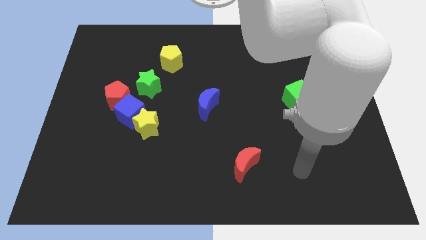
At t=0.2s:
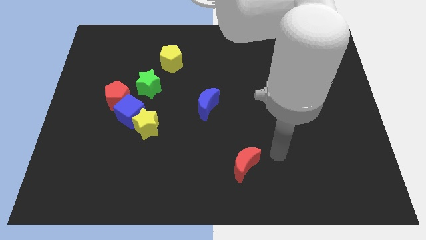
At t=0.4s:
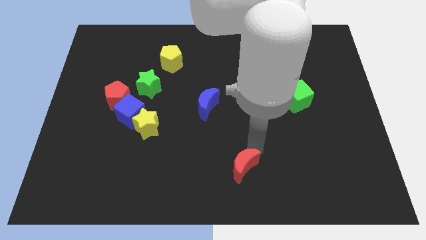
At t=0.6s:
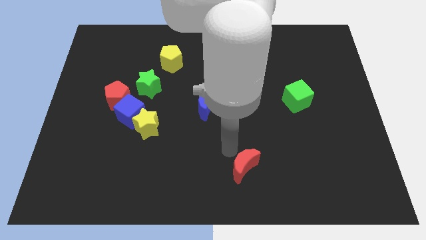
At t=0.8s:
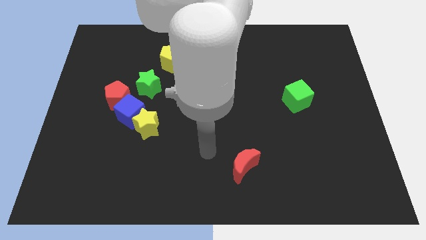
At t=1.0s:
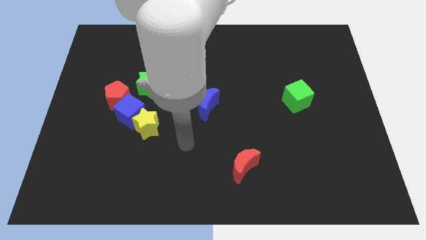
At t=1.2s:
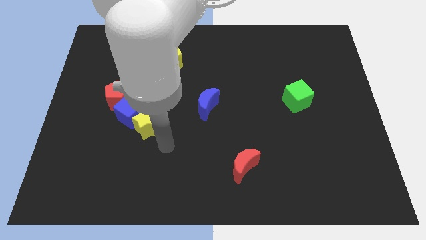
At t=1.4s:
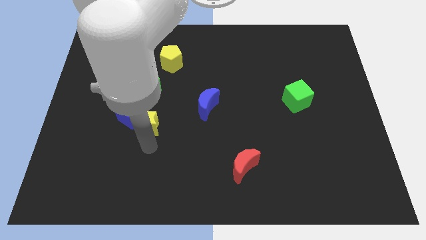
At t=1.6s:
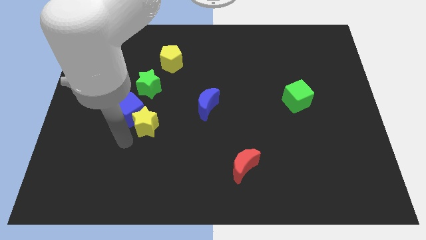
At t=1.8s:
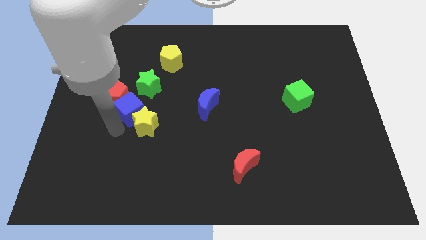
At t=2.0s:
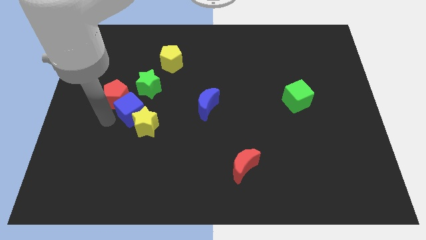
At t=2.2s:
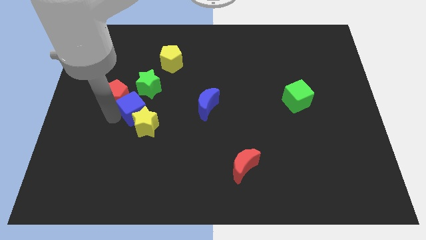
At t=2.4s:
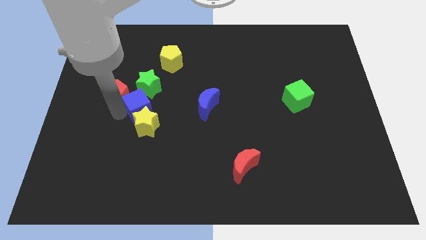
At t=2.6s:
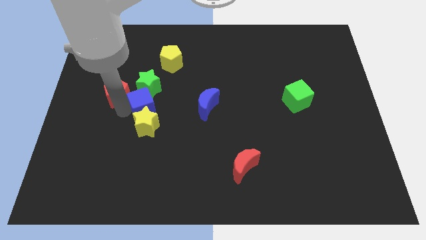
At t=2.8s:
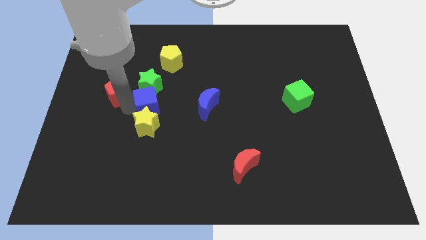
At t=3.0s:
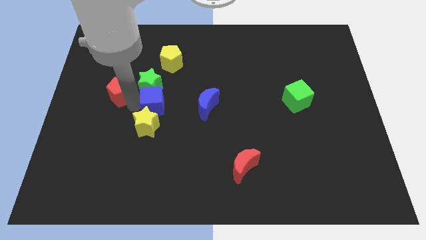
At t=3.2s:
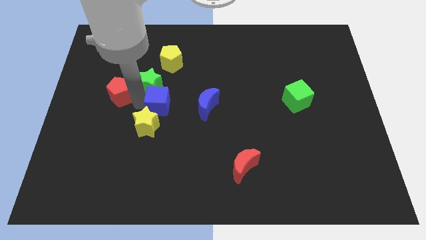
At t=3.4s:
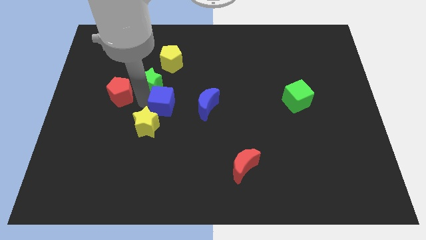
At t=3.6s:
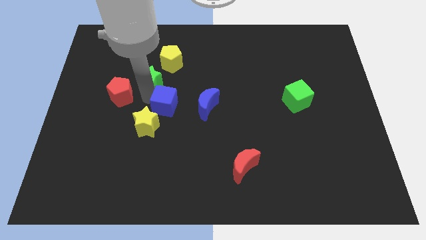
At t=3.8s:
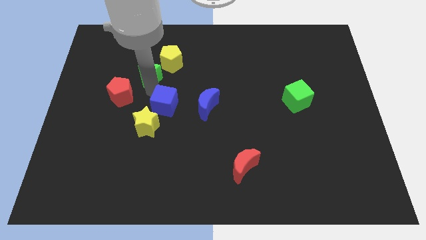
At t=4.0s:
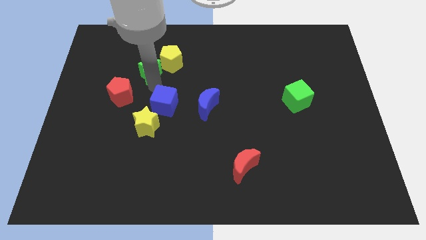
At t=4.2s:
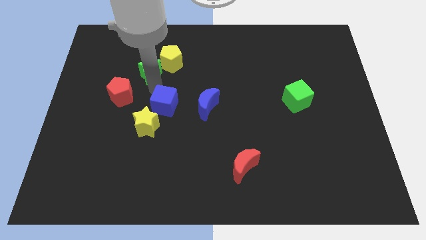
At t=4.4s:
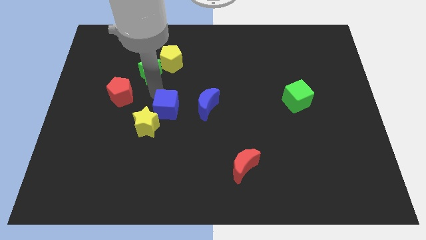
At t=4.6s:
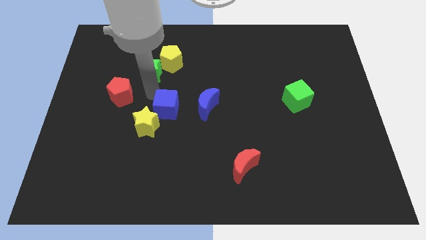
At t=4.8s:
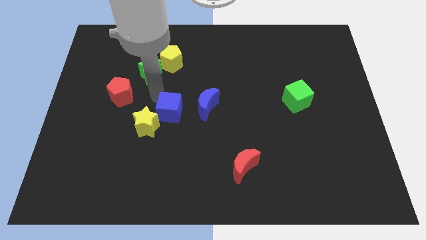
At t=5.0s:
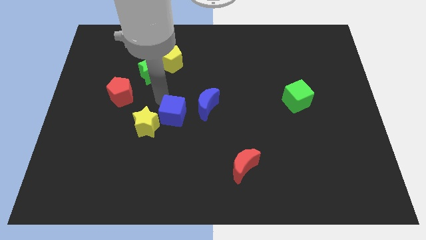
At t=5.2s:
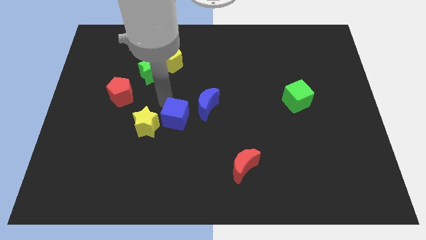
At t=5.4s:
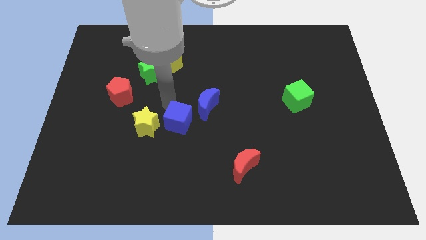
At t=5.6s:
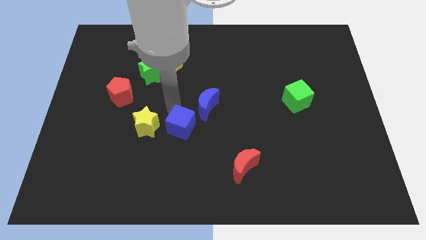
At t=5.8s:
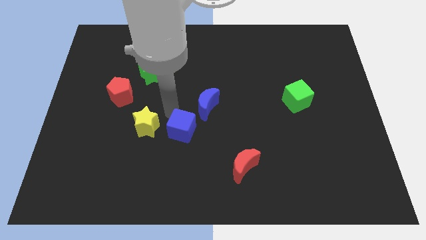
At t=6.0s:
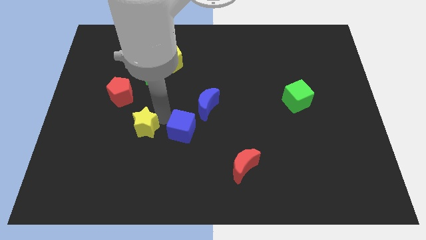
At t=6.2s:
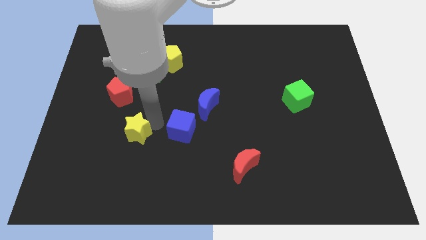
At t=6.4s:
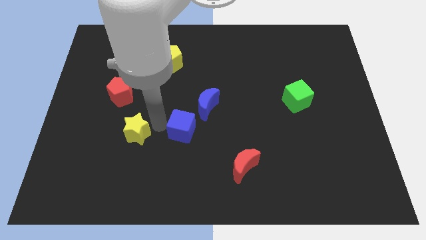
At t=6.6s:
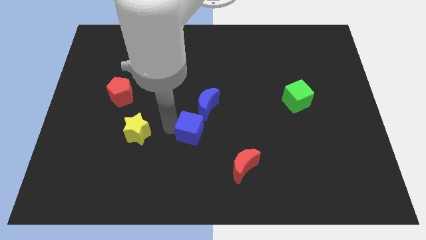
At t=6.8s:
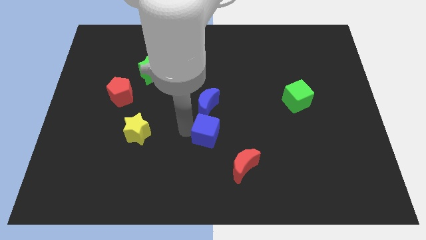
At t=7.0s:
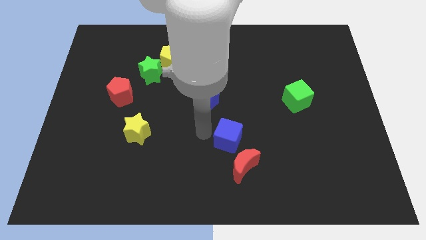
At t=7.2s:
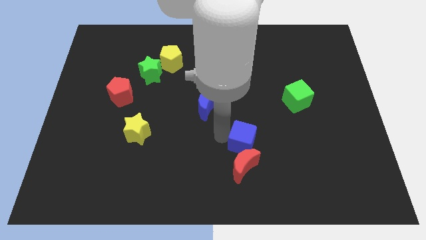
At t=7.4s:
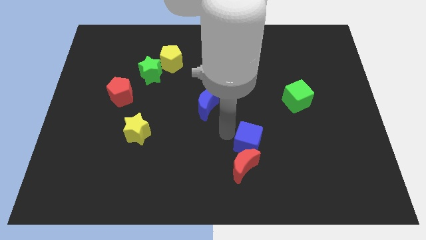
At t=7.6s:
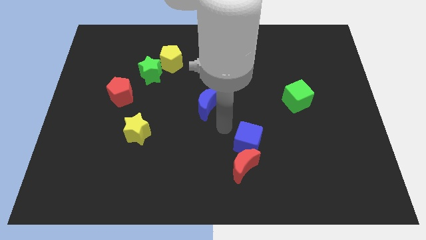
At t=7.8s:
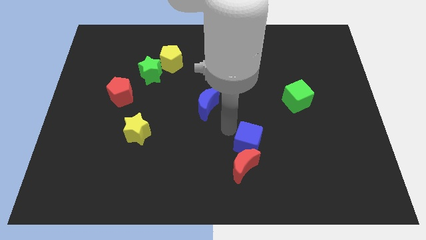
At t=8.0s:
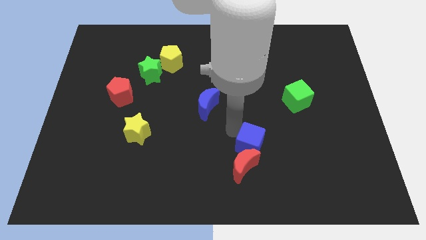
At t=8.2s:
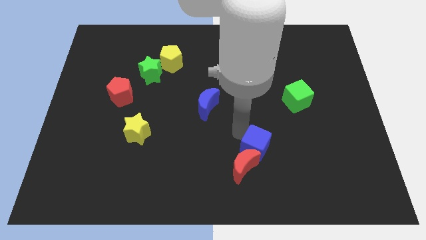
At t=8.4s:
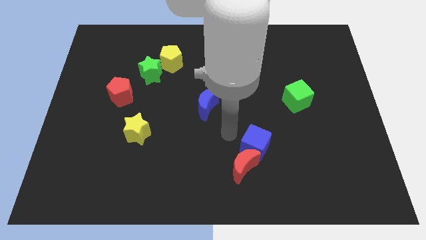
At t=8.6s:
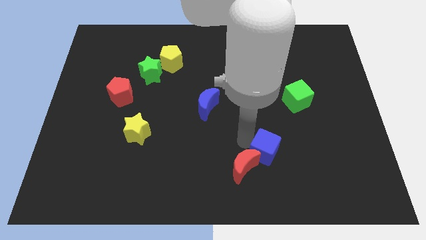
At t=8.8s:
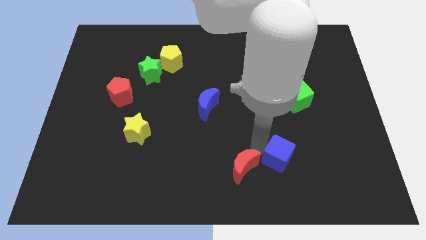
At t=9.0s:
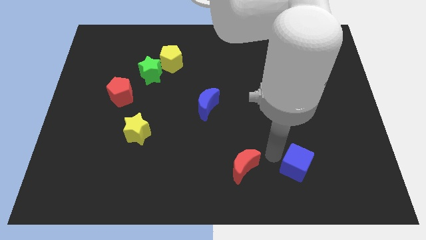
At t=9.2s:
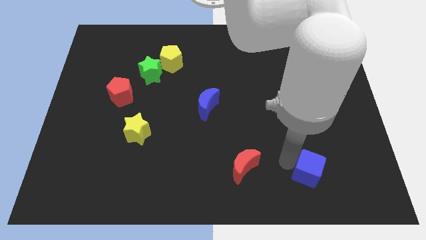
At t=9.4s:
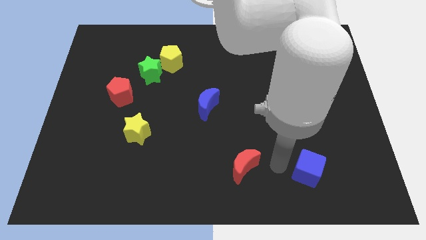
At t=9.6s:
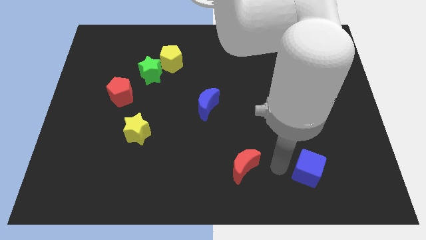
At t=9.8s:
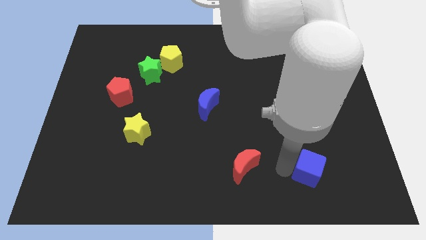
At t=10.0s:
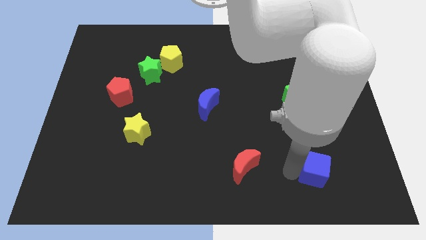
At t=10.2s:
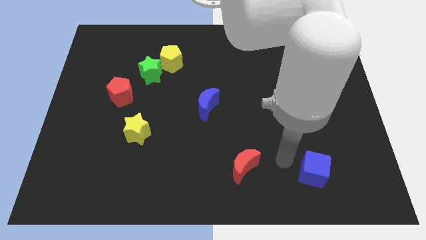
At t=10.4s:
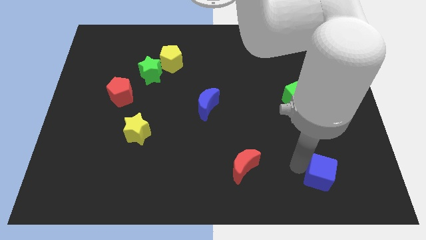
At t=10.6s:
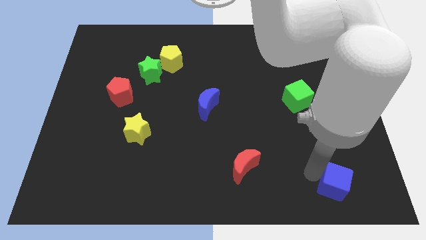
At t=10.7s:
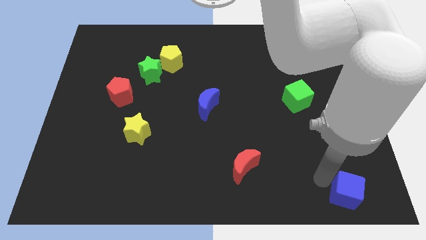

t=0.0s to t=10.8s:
move the blue cube to the bottom right corner

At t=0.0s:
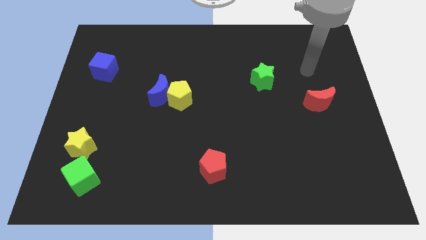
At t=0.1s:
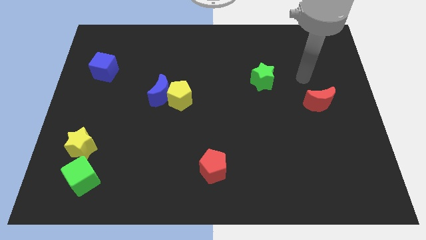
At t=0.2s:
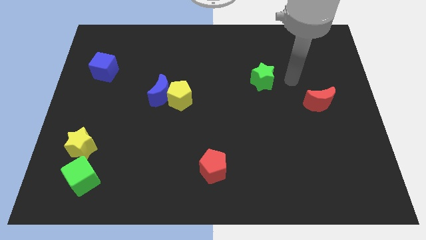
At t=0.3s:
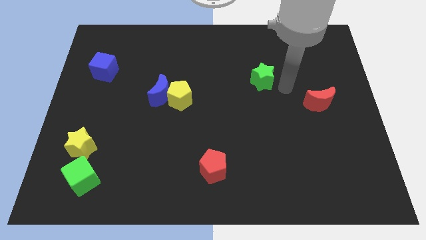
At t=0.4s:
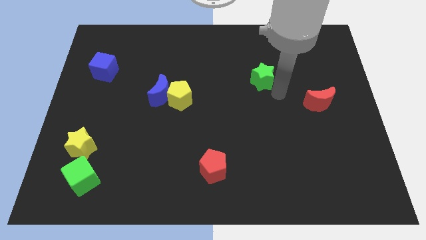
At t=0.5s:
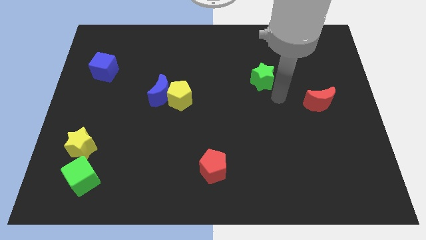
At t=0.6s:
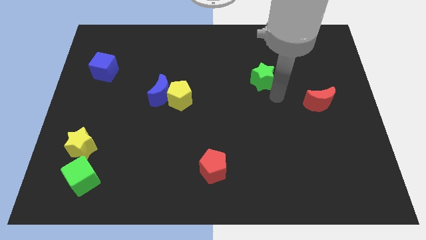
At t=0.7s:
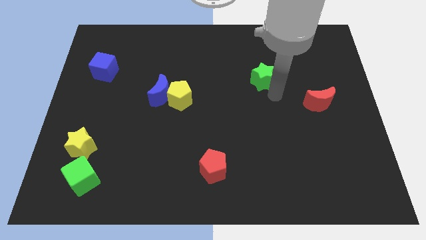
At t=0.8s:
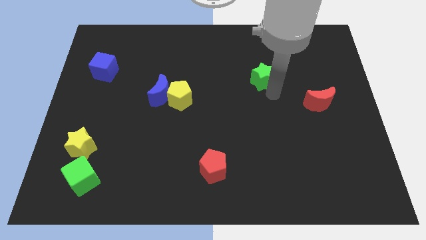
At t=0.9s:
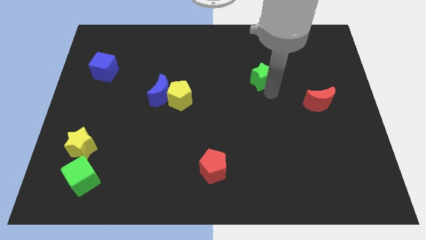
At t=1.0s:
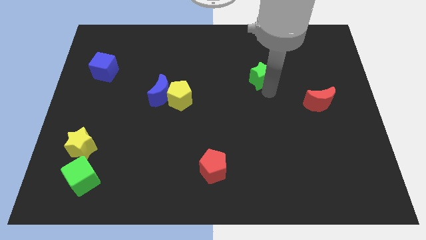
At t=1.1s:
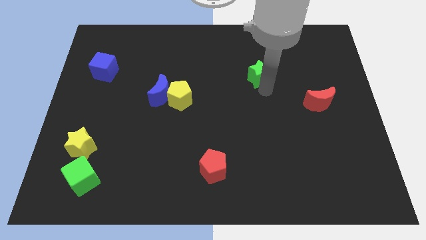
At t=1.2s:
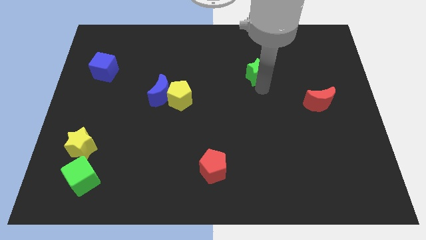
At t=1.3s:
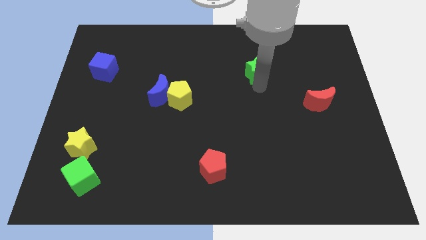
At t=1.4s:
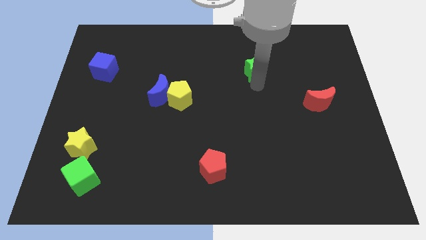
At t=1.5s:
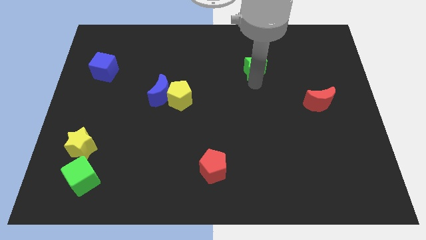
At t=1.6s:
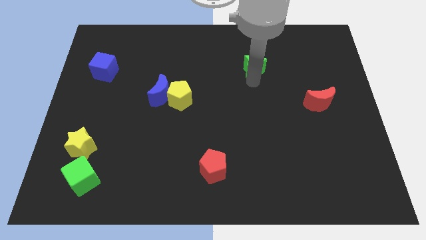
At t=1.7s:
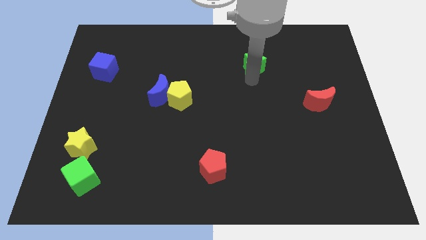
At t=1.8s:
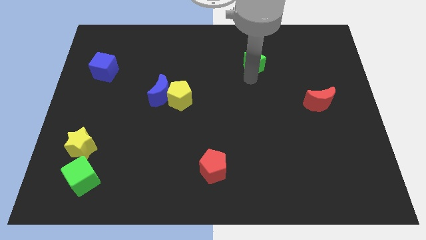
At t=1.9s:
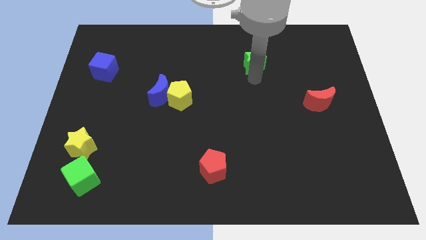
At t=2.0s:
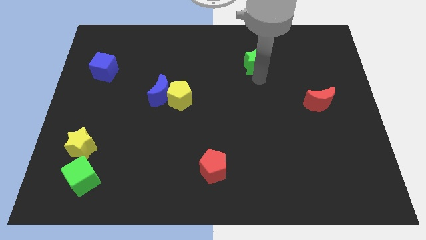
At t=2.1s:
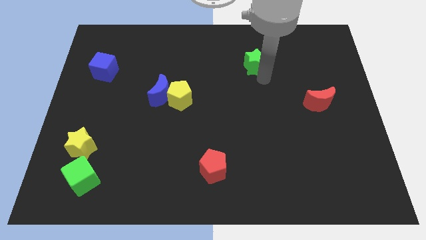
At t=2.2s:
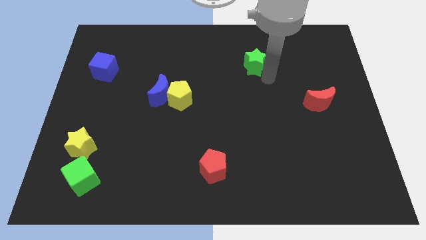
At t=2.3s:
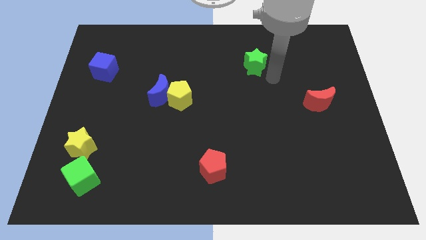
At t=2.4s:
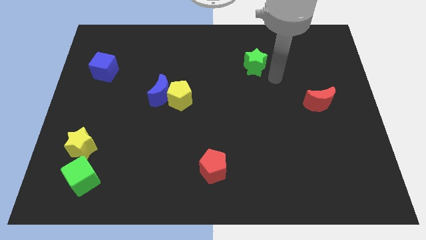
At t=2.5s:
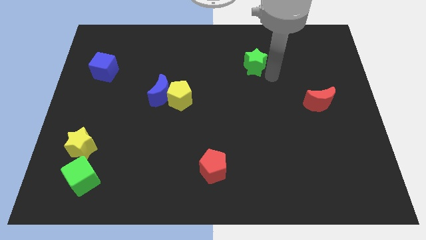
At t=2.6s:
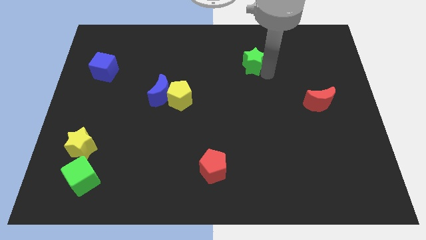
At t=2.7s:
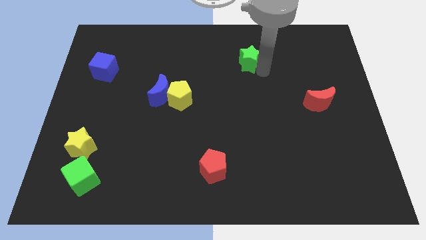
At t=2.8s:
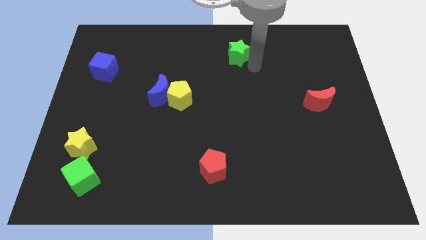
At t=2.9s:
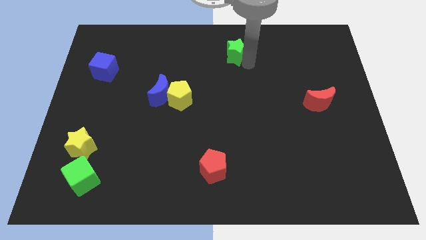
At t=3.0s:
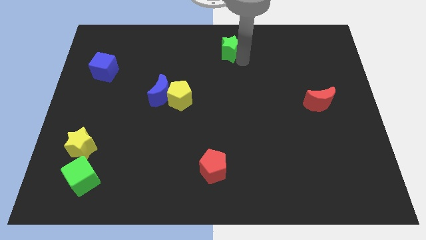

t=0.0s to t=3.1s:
put the green star to the top
